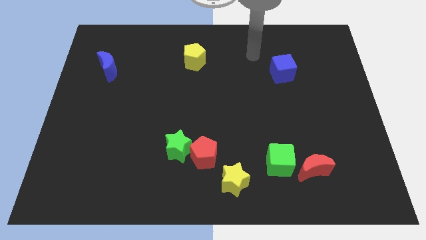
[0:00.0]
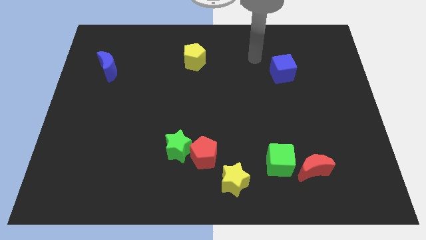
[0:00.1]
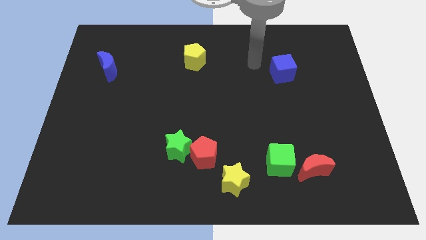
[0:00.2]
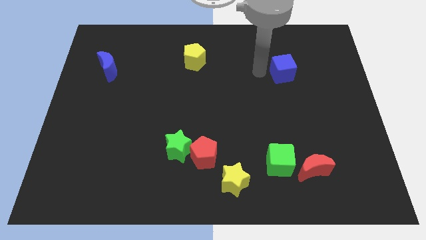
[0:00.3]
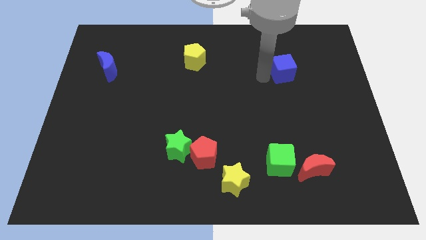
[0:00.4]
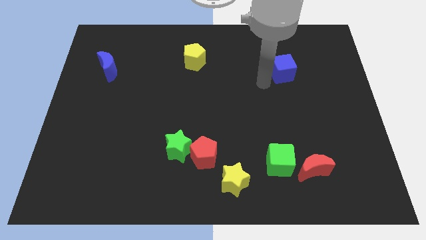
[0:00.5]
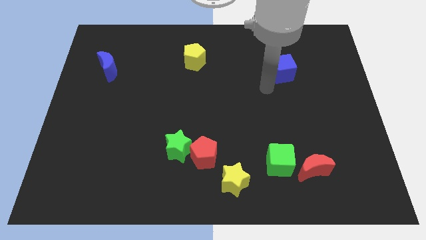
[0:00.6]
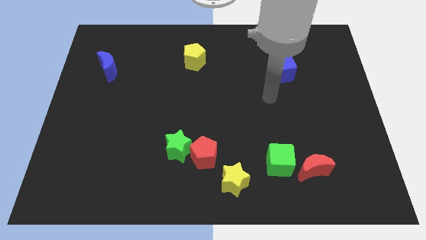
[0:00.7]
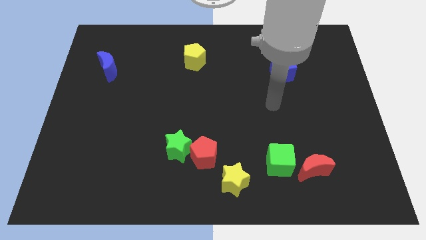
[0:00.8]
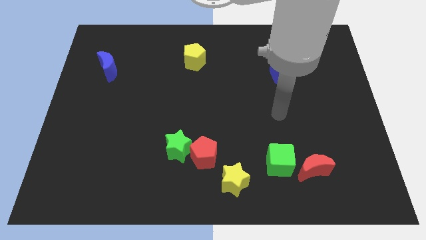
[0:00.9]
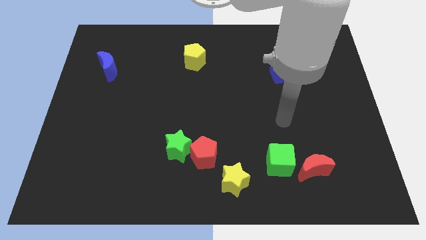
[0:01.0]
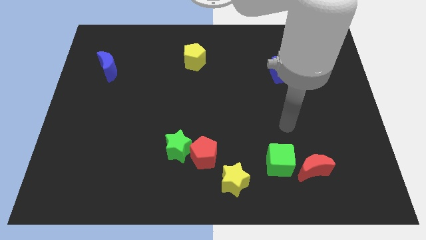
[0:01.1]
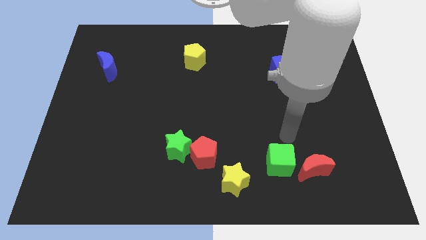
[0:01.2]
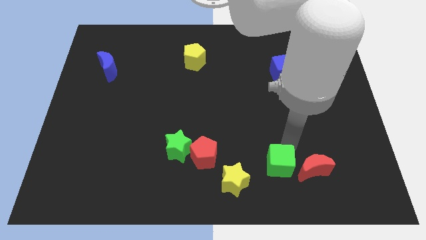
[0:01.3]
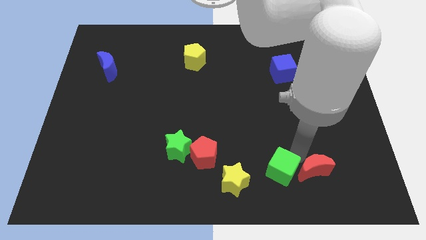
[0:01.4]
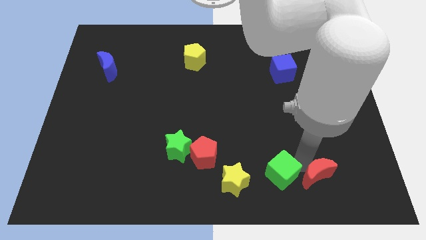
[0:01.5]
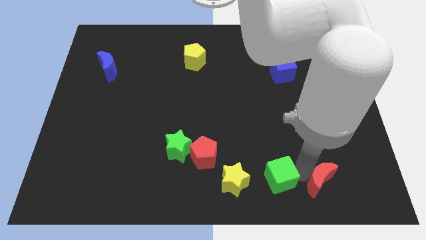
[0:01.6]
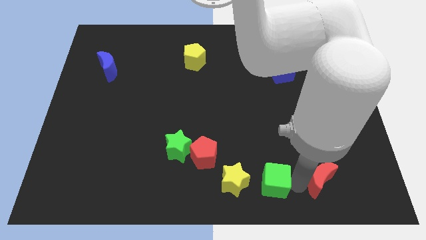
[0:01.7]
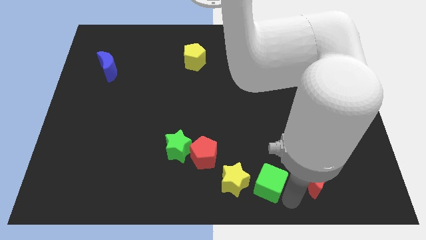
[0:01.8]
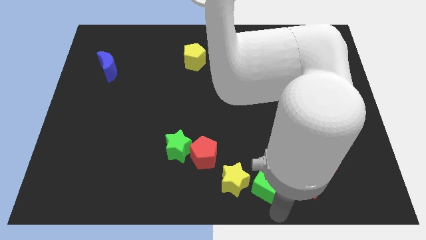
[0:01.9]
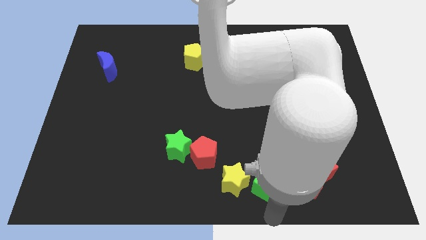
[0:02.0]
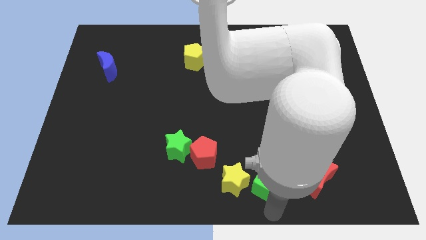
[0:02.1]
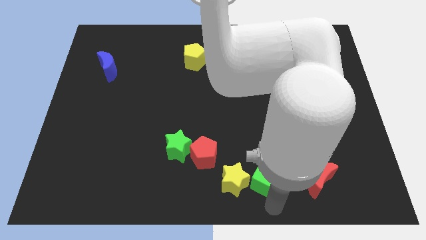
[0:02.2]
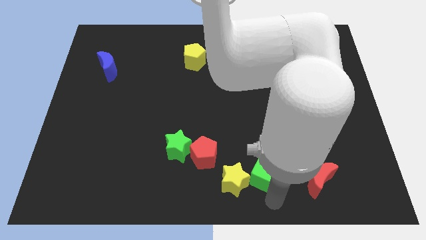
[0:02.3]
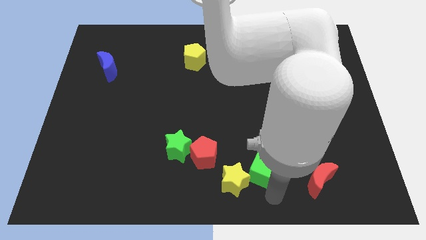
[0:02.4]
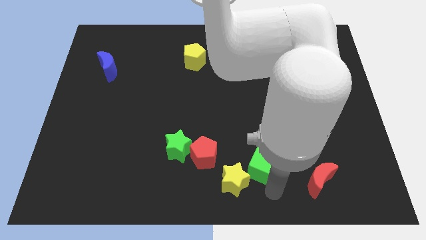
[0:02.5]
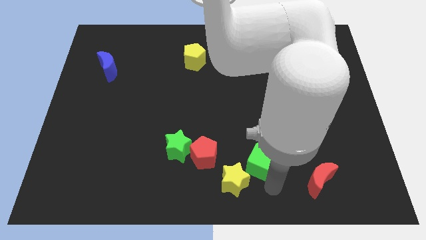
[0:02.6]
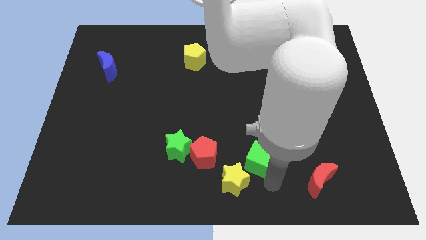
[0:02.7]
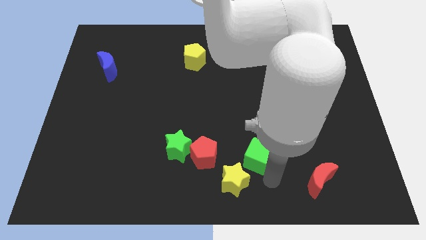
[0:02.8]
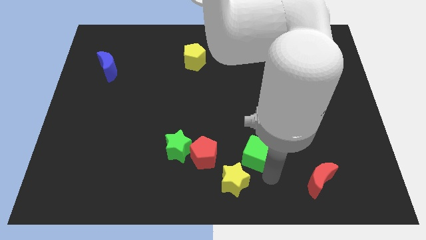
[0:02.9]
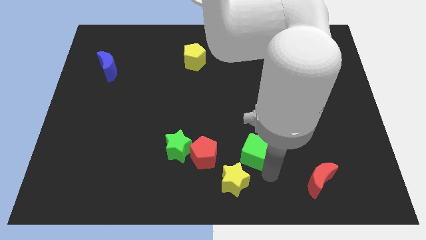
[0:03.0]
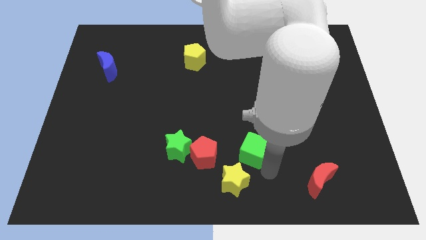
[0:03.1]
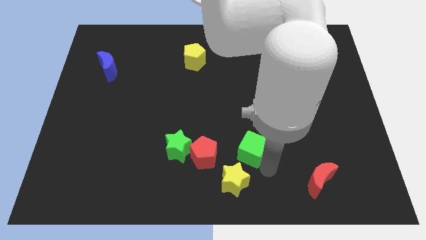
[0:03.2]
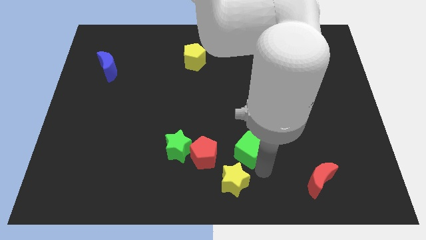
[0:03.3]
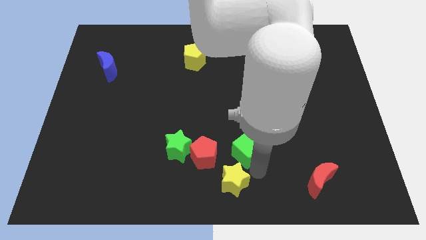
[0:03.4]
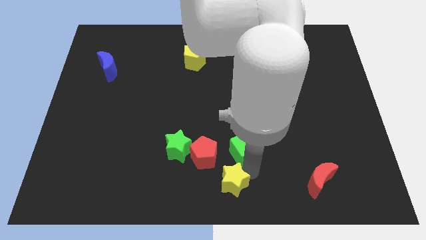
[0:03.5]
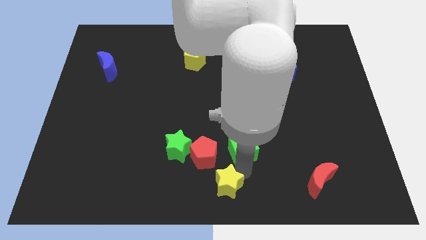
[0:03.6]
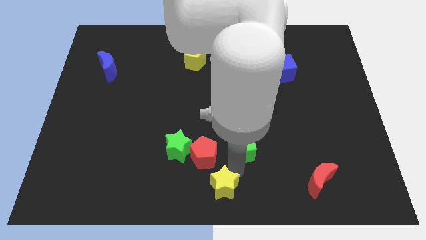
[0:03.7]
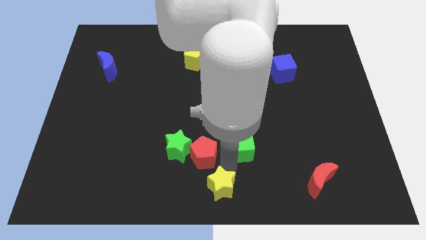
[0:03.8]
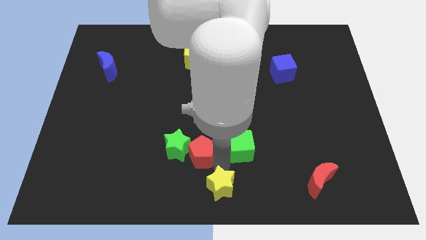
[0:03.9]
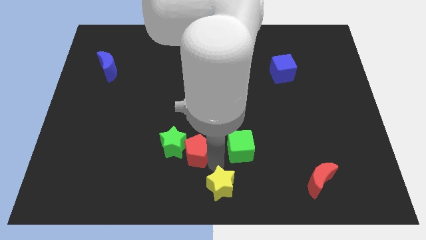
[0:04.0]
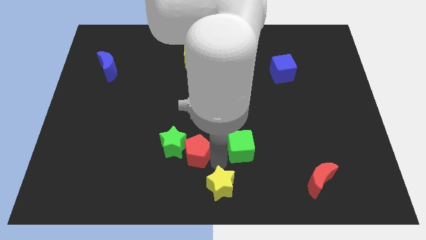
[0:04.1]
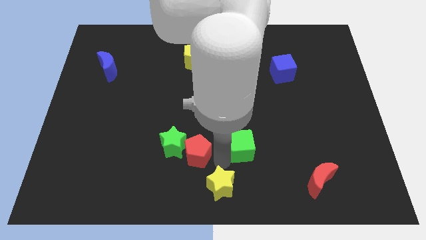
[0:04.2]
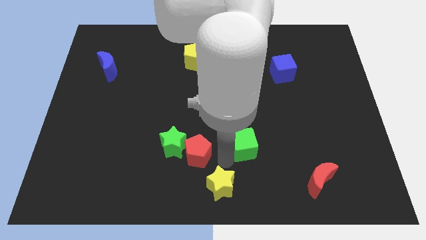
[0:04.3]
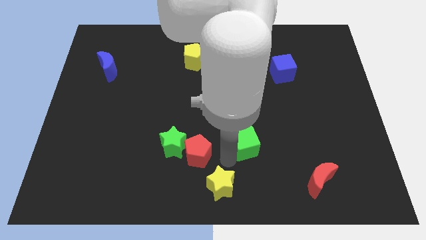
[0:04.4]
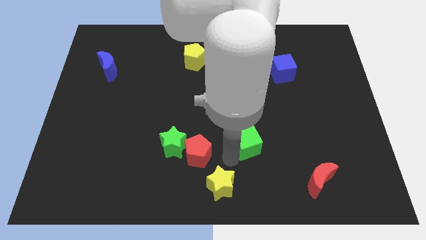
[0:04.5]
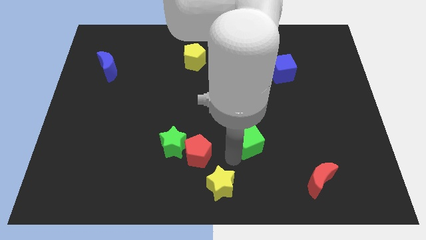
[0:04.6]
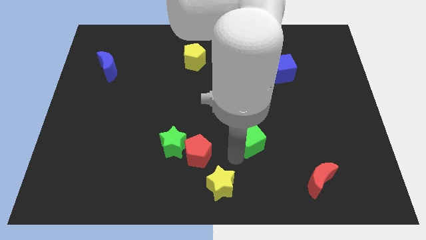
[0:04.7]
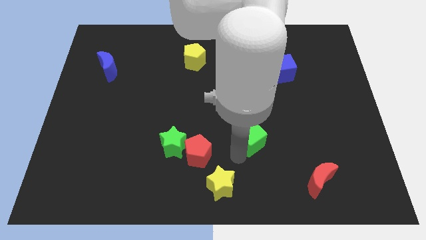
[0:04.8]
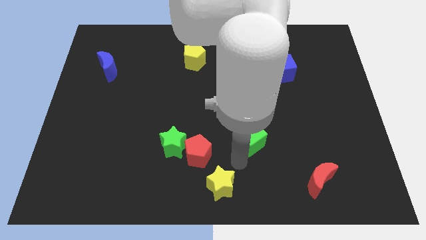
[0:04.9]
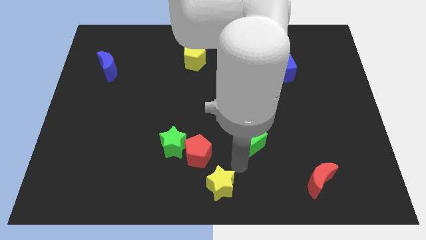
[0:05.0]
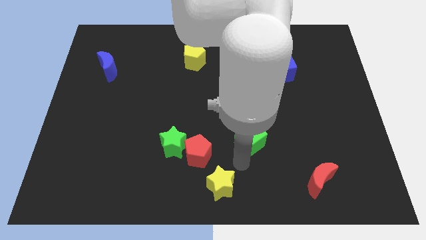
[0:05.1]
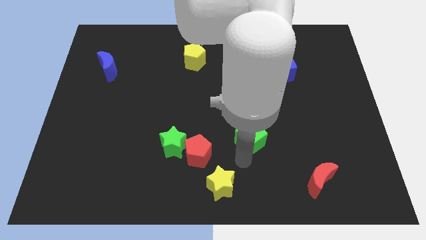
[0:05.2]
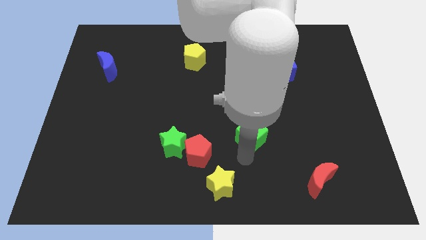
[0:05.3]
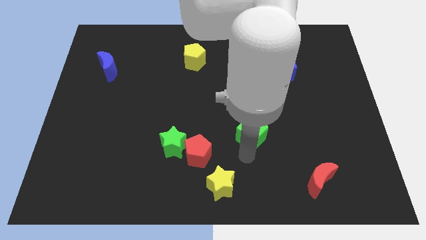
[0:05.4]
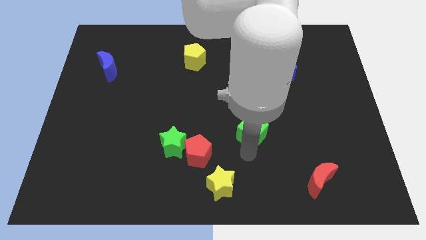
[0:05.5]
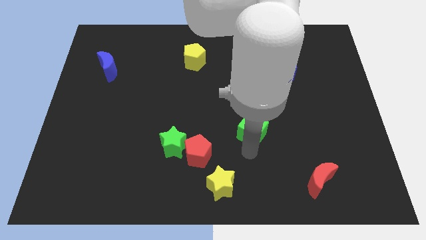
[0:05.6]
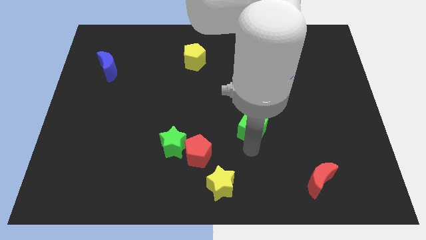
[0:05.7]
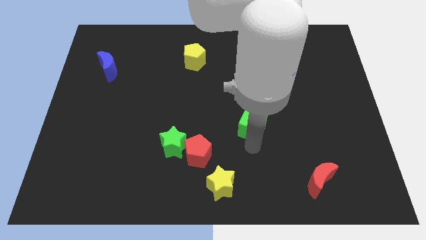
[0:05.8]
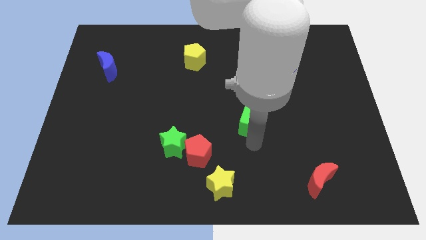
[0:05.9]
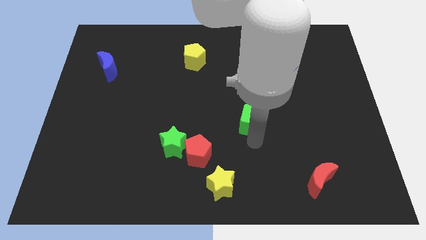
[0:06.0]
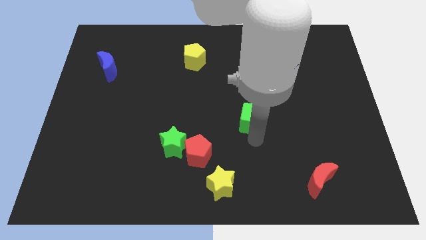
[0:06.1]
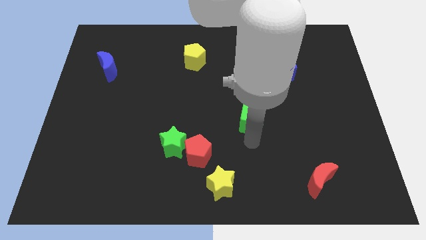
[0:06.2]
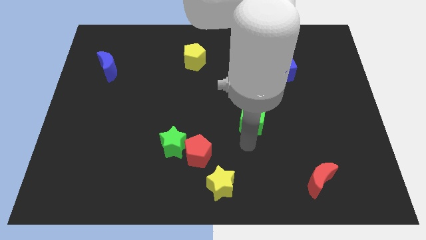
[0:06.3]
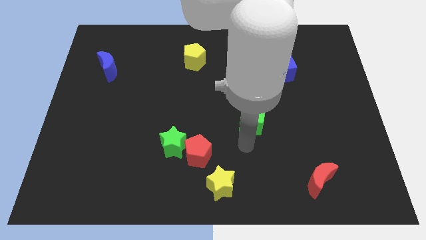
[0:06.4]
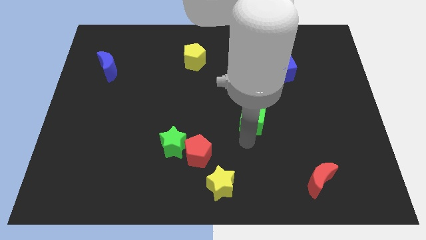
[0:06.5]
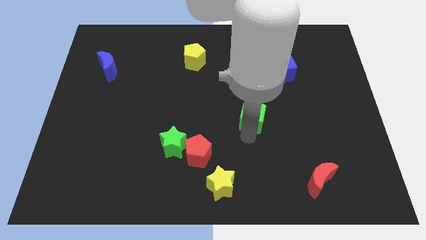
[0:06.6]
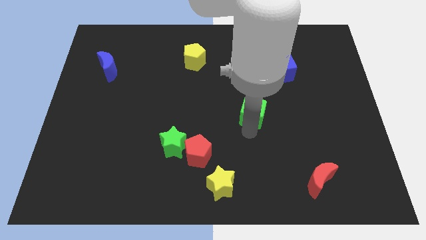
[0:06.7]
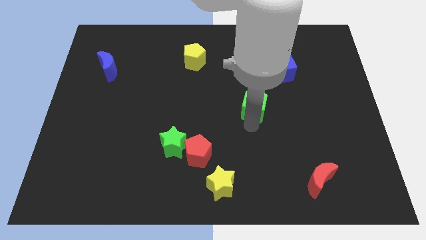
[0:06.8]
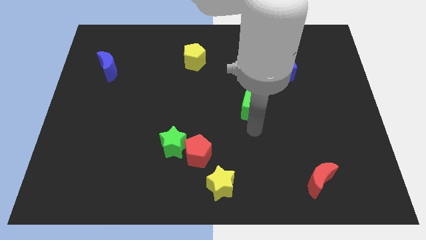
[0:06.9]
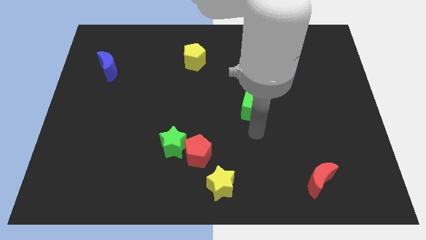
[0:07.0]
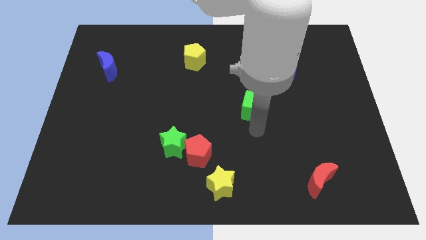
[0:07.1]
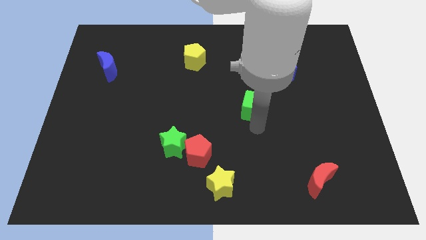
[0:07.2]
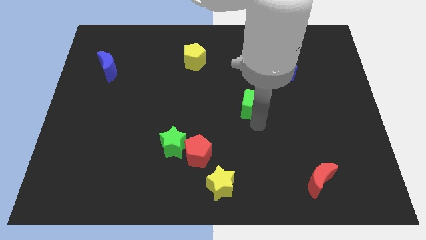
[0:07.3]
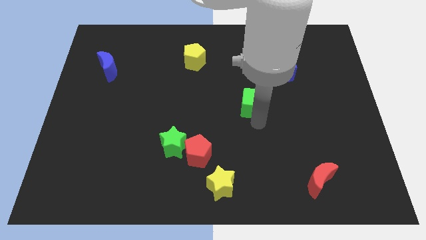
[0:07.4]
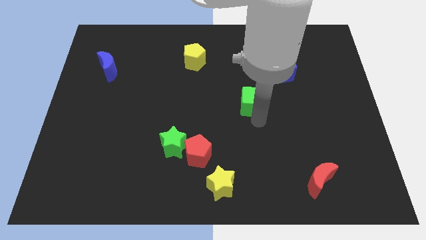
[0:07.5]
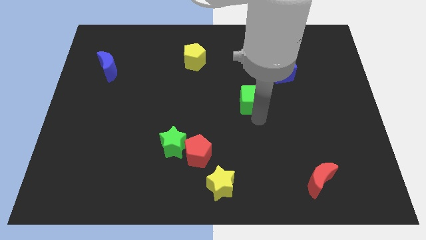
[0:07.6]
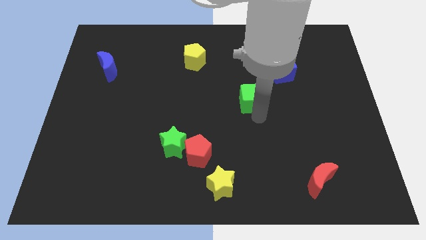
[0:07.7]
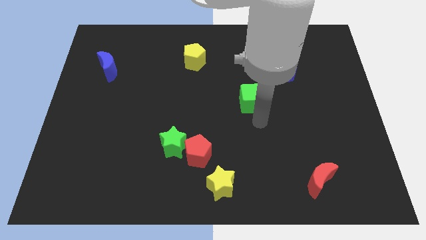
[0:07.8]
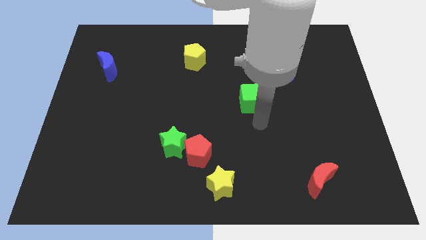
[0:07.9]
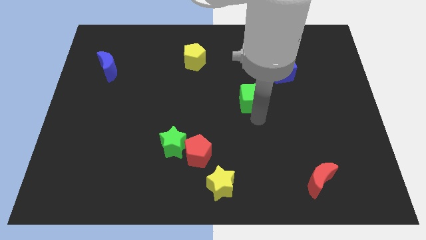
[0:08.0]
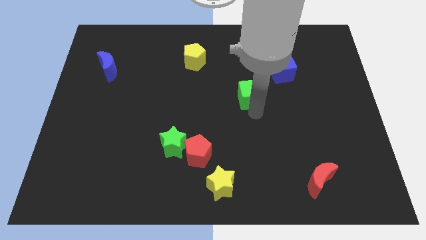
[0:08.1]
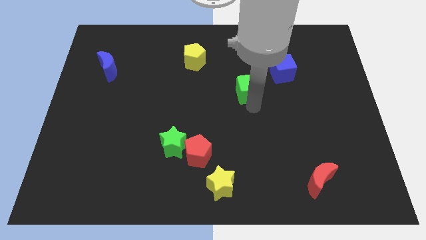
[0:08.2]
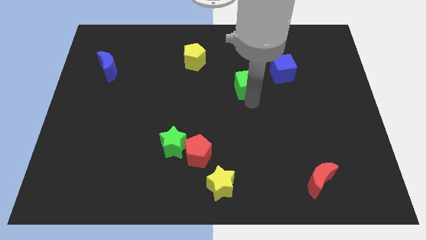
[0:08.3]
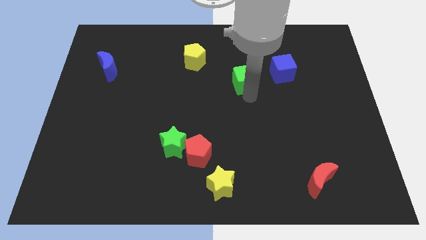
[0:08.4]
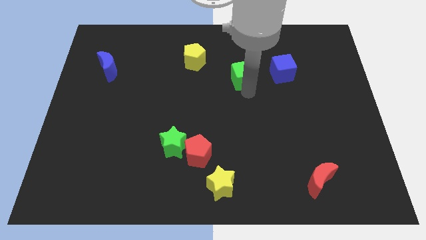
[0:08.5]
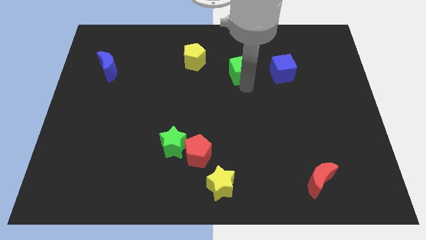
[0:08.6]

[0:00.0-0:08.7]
push the green cube just right of the yellow pentagon
